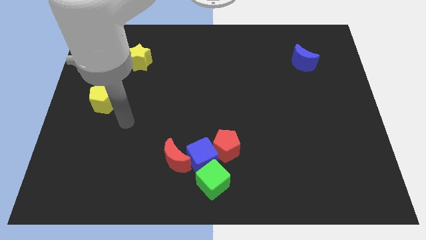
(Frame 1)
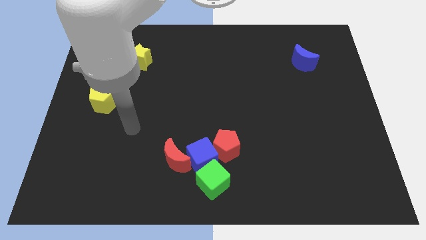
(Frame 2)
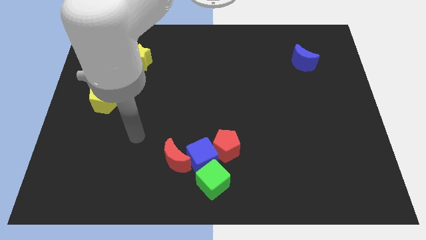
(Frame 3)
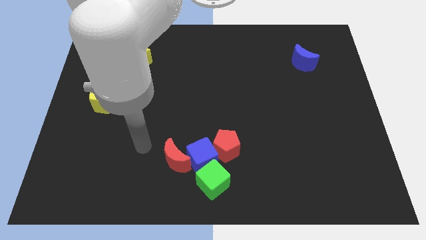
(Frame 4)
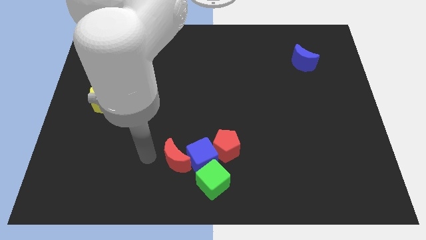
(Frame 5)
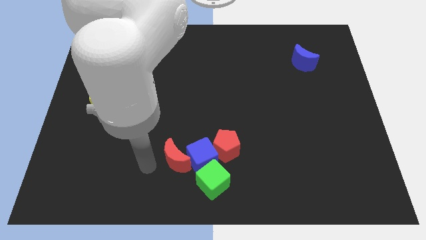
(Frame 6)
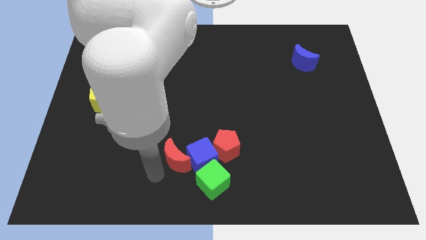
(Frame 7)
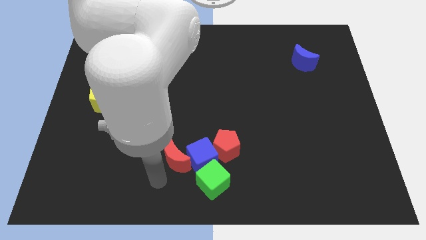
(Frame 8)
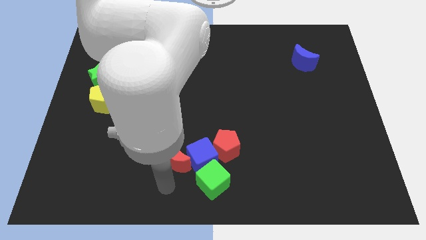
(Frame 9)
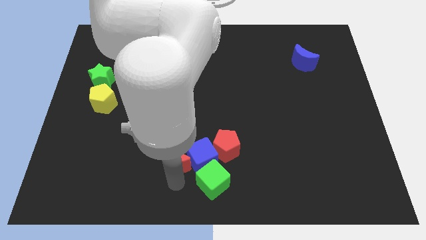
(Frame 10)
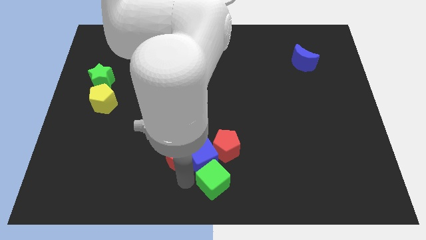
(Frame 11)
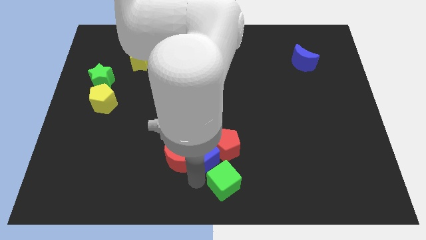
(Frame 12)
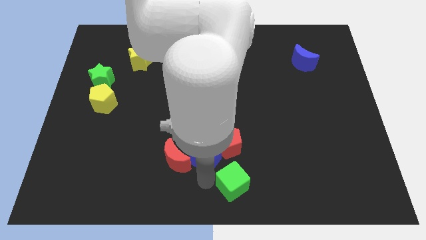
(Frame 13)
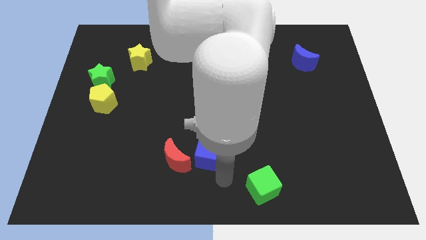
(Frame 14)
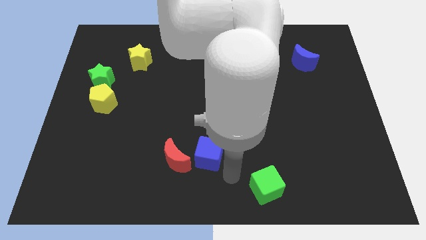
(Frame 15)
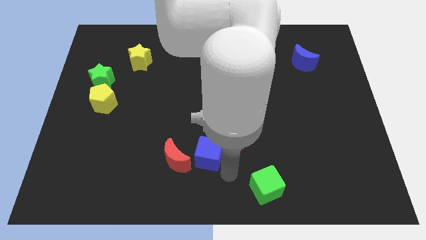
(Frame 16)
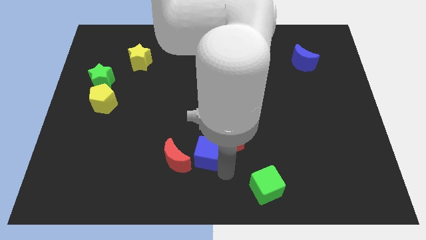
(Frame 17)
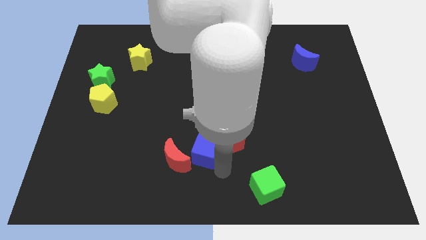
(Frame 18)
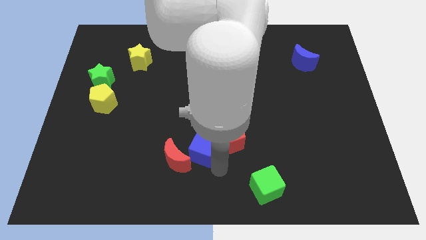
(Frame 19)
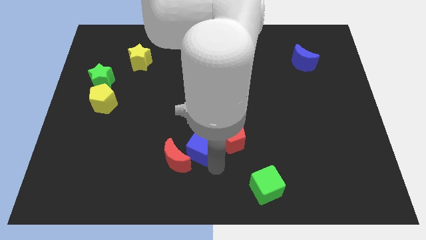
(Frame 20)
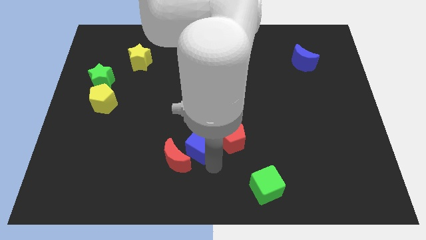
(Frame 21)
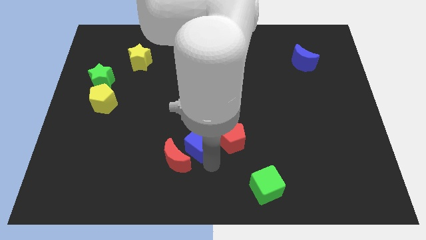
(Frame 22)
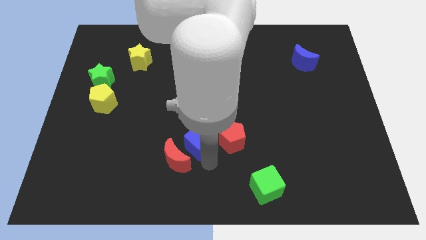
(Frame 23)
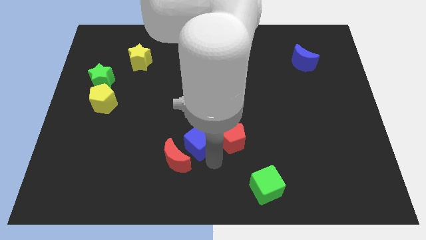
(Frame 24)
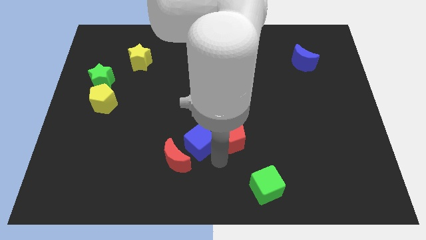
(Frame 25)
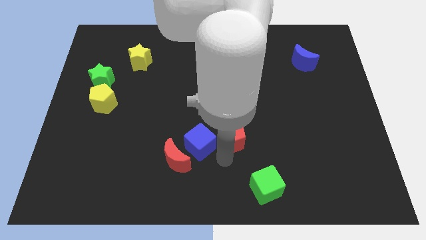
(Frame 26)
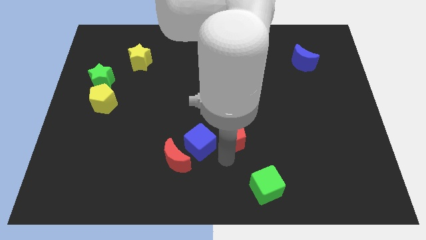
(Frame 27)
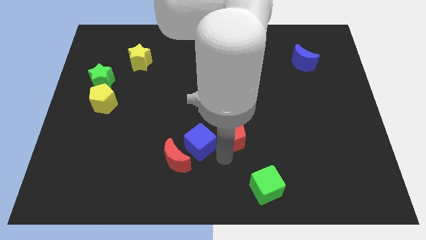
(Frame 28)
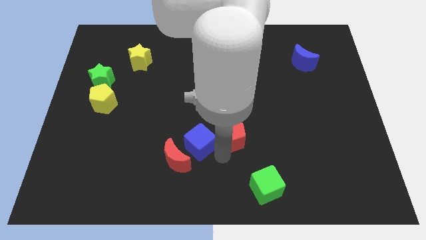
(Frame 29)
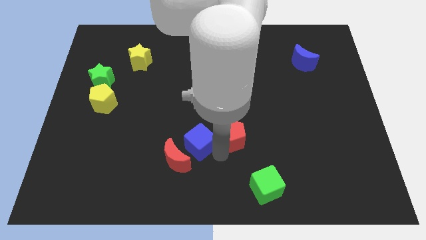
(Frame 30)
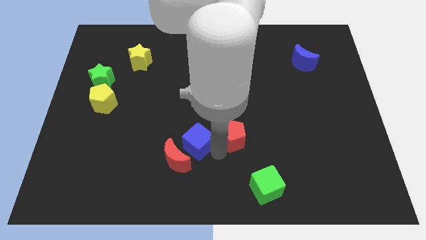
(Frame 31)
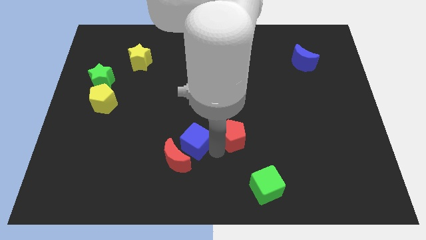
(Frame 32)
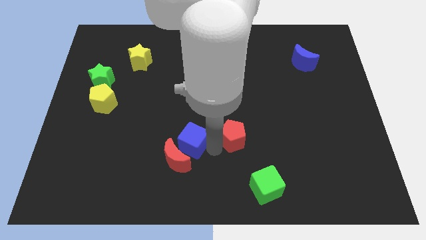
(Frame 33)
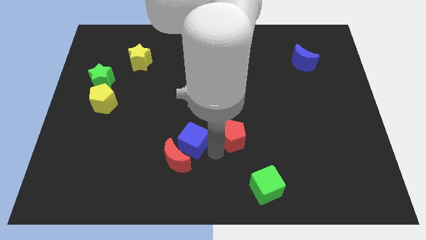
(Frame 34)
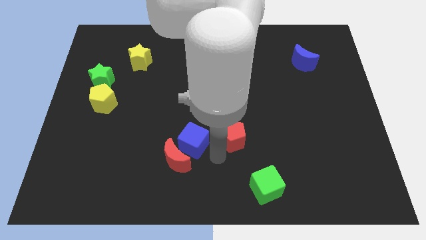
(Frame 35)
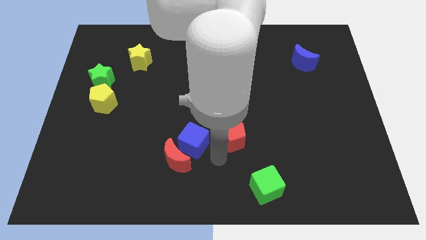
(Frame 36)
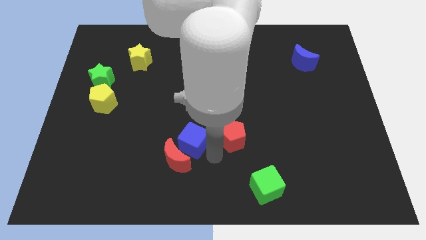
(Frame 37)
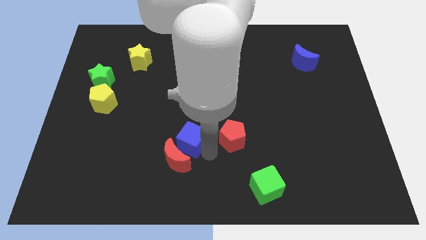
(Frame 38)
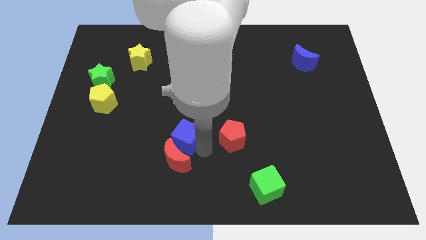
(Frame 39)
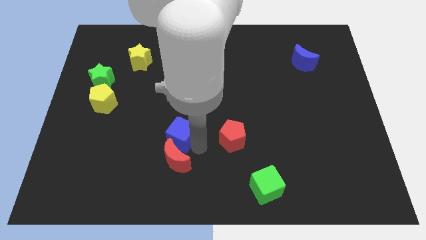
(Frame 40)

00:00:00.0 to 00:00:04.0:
separate the blue cube from the clump

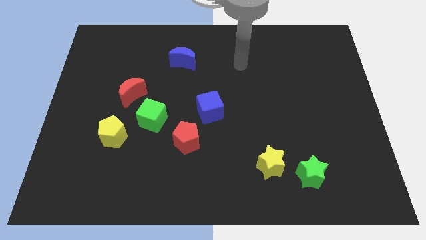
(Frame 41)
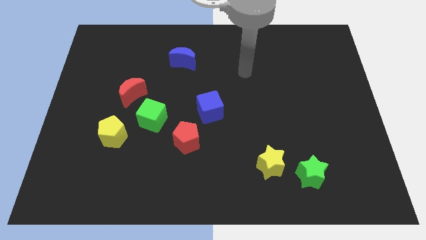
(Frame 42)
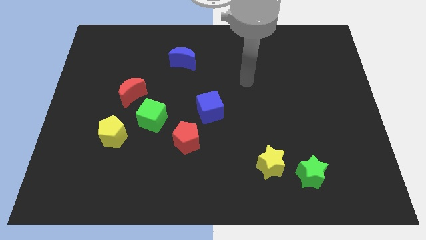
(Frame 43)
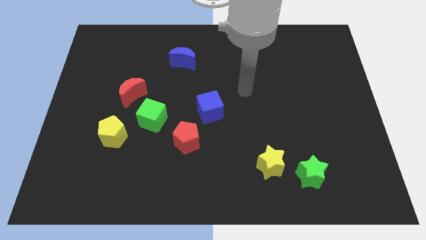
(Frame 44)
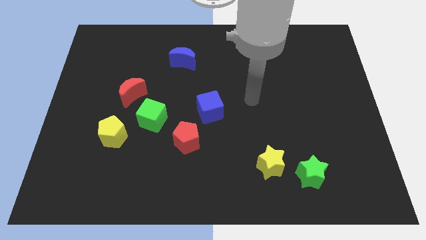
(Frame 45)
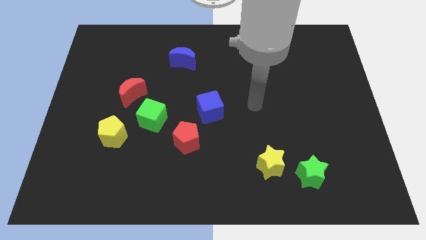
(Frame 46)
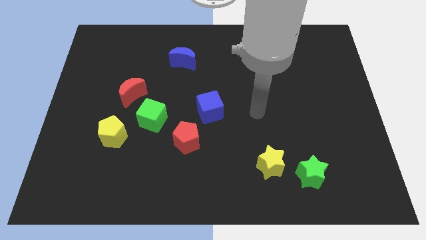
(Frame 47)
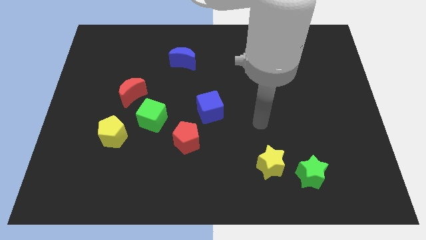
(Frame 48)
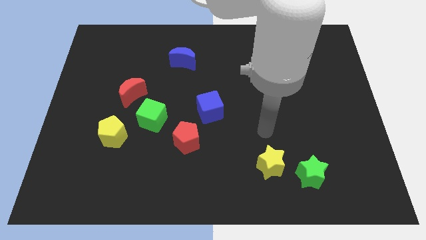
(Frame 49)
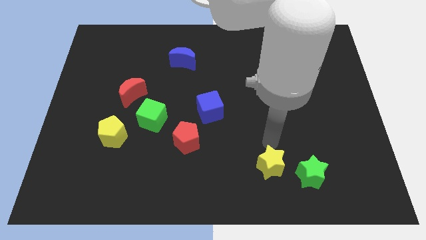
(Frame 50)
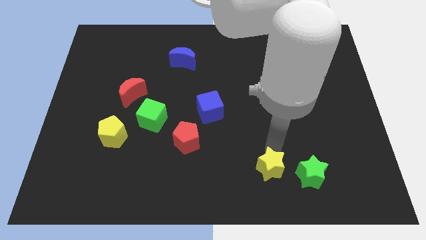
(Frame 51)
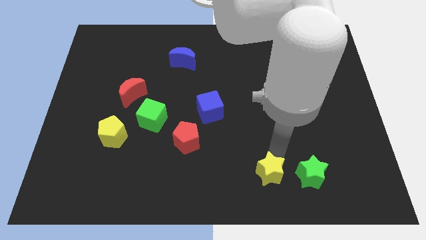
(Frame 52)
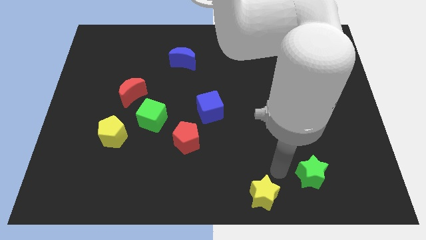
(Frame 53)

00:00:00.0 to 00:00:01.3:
move the green star away from the yellow star

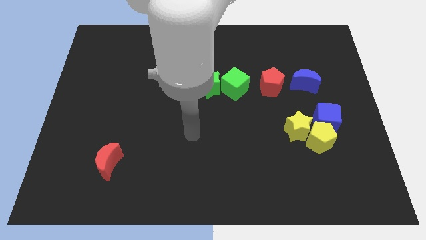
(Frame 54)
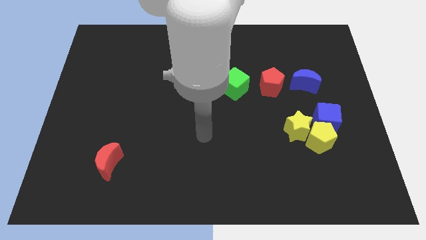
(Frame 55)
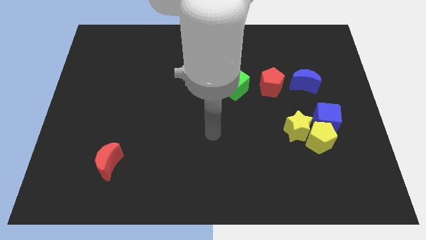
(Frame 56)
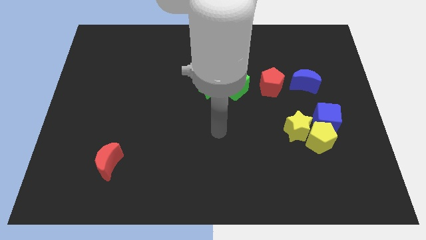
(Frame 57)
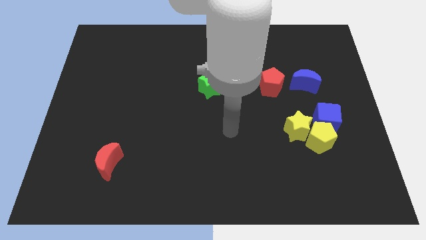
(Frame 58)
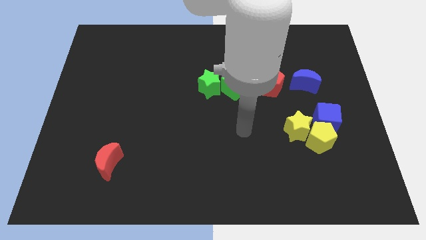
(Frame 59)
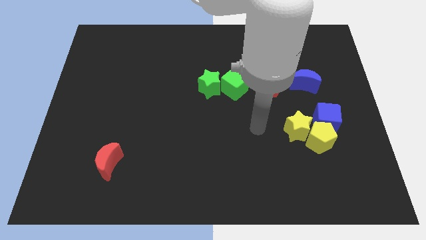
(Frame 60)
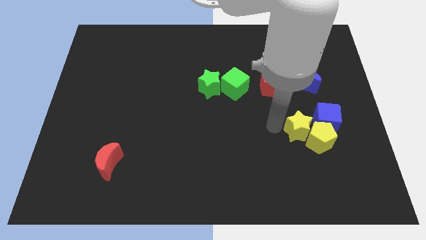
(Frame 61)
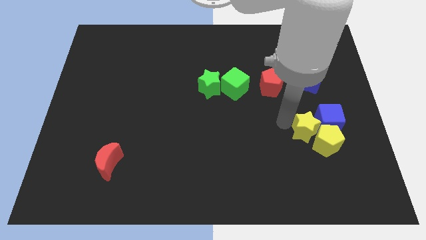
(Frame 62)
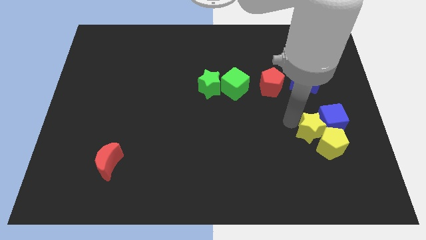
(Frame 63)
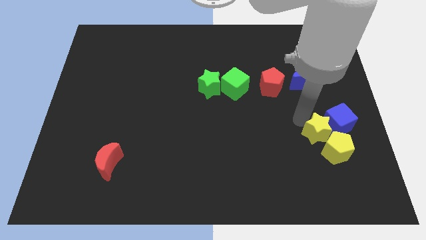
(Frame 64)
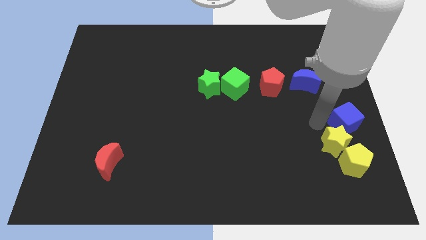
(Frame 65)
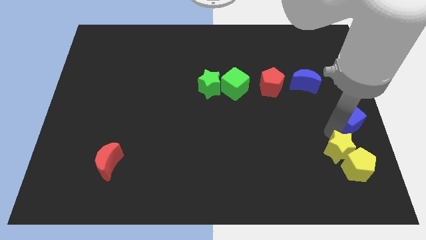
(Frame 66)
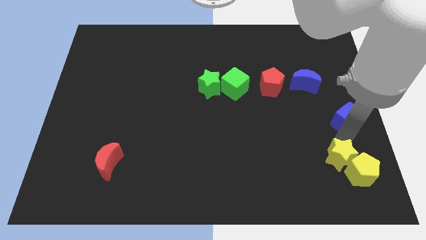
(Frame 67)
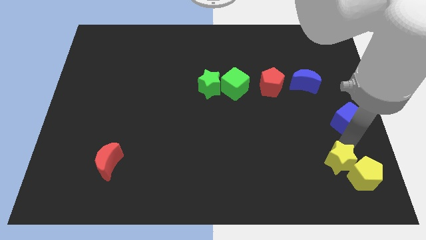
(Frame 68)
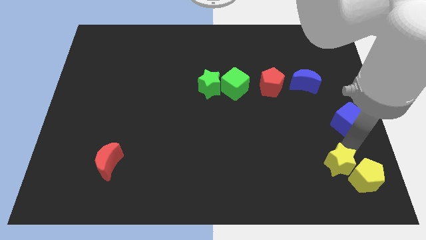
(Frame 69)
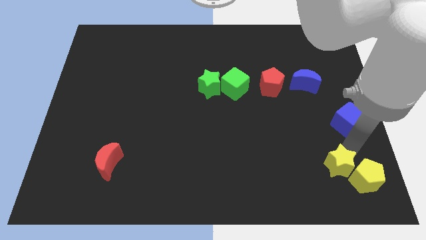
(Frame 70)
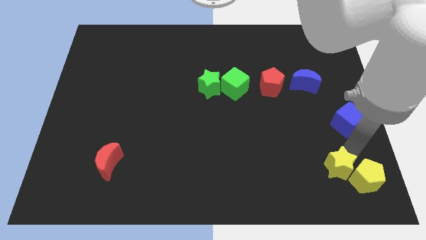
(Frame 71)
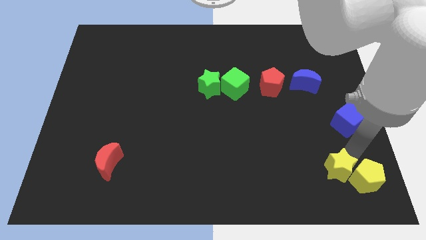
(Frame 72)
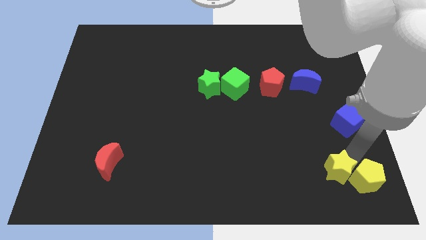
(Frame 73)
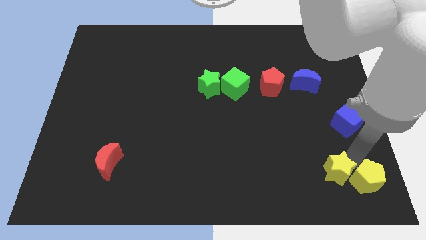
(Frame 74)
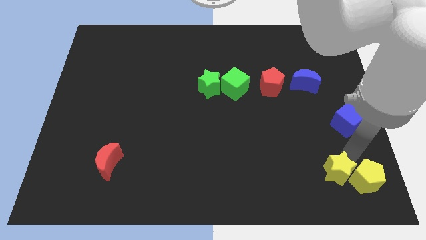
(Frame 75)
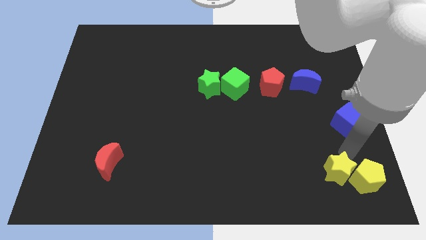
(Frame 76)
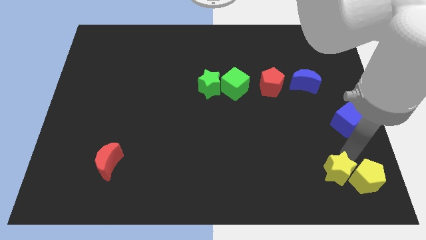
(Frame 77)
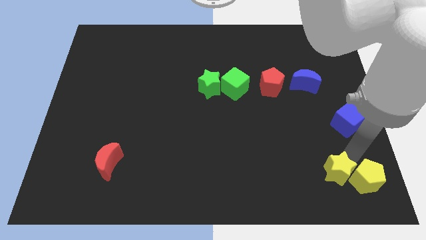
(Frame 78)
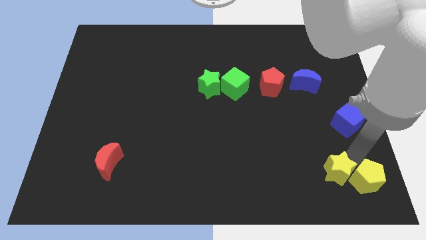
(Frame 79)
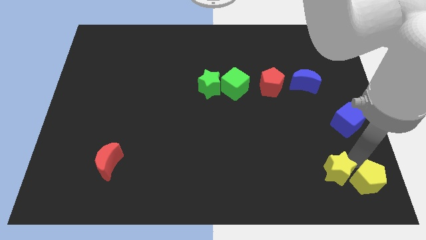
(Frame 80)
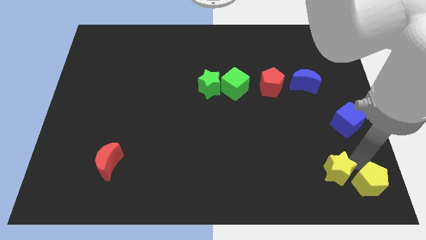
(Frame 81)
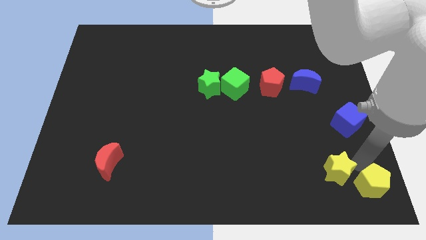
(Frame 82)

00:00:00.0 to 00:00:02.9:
pull the yellow pentagon apart from the yellow star and blue cube

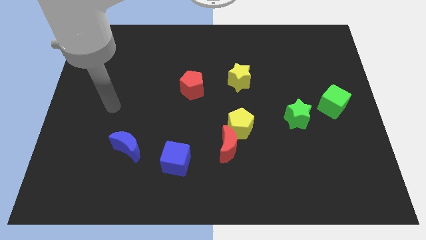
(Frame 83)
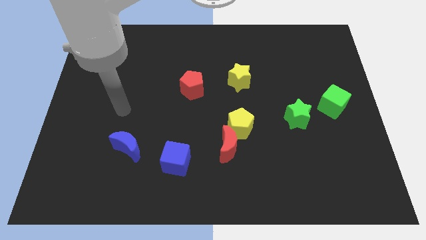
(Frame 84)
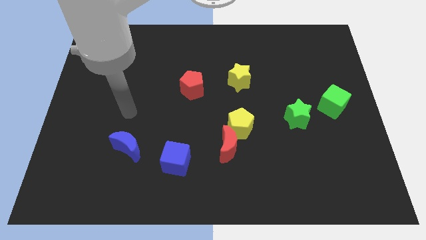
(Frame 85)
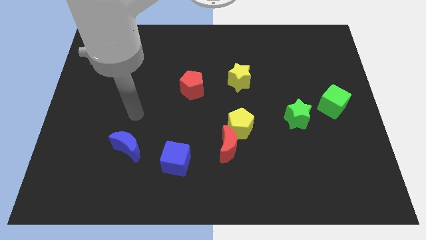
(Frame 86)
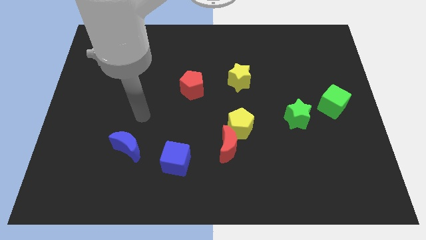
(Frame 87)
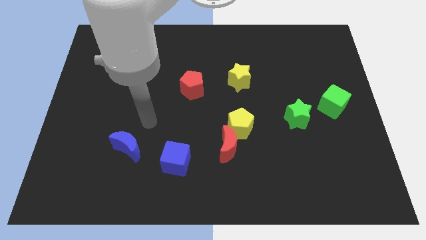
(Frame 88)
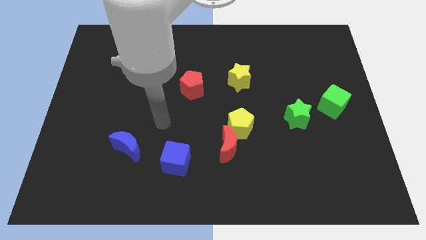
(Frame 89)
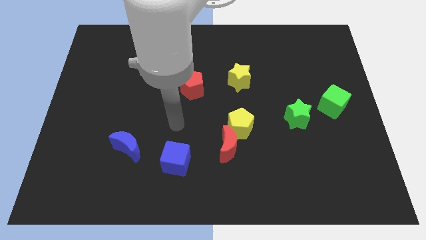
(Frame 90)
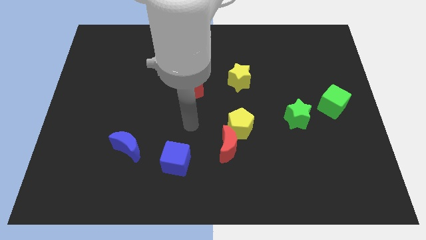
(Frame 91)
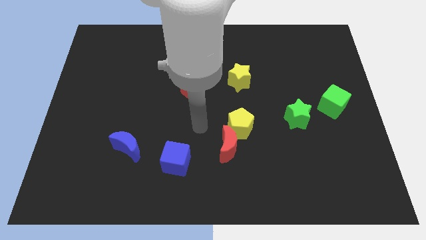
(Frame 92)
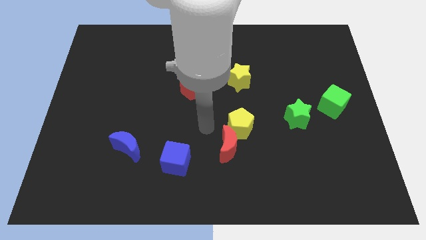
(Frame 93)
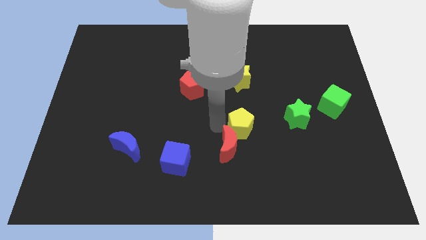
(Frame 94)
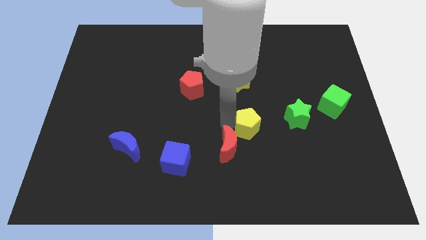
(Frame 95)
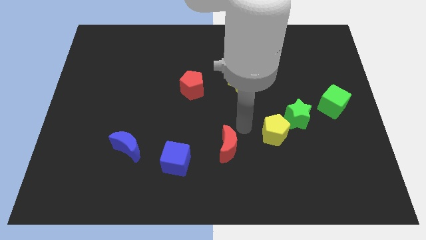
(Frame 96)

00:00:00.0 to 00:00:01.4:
separate the red moon from the yellow pentagon
